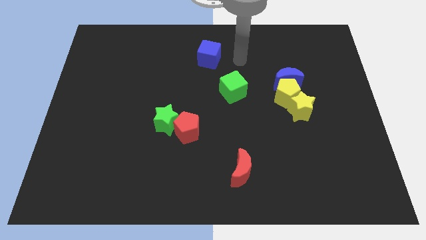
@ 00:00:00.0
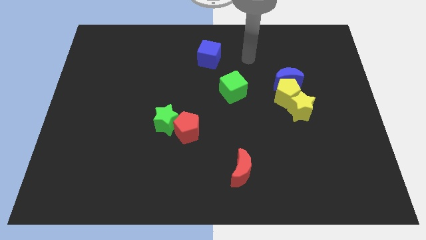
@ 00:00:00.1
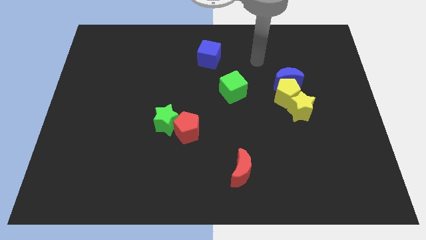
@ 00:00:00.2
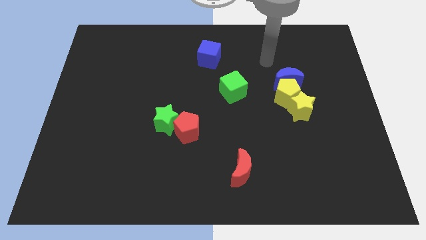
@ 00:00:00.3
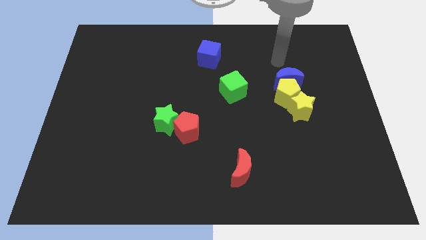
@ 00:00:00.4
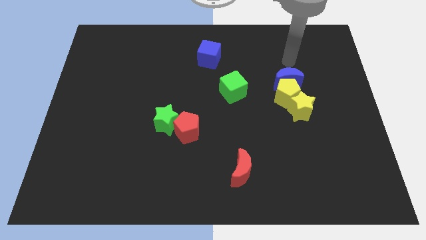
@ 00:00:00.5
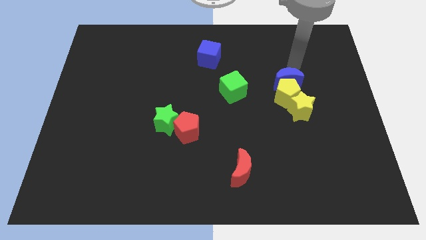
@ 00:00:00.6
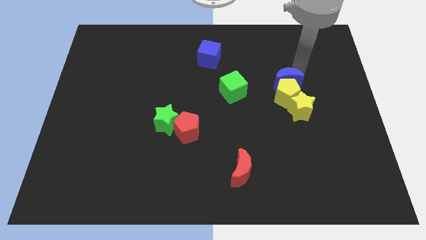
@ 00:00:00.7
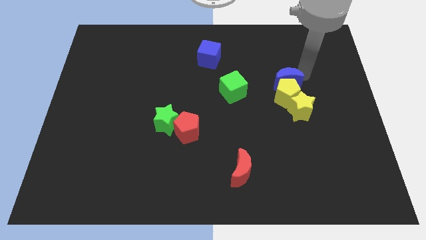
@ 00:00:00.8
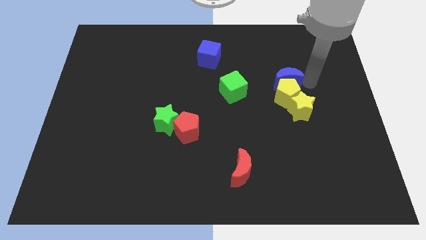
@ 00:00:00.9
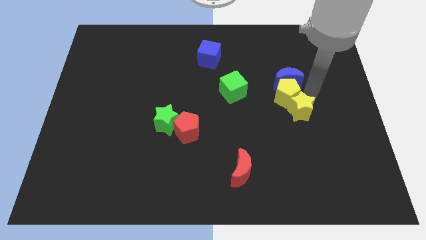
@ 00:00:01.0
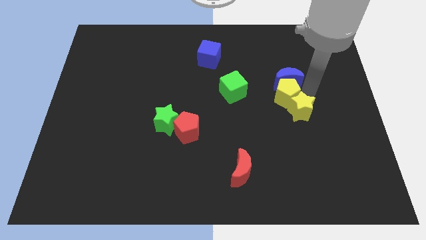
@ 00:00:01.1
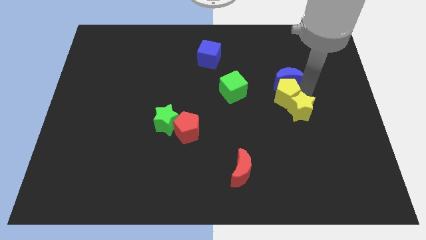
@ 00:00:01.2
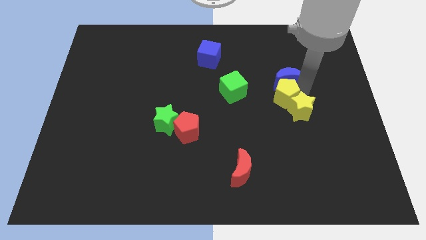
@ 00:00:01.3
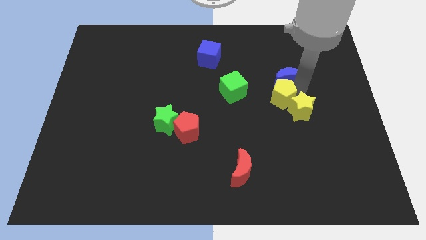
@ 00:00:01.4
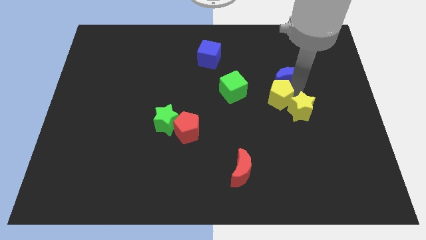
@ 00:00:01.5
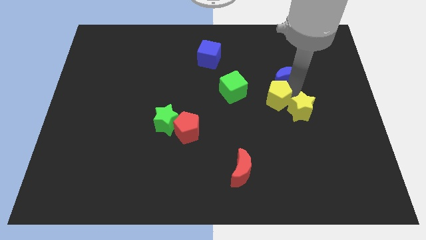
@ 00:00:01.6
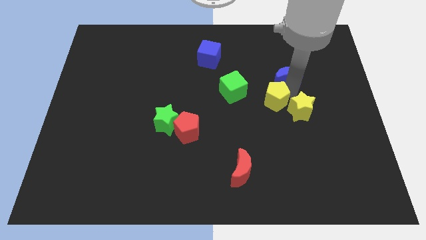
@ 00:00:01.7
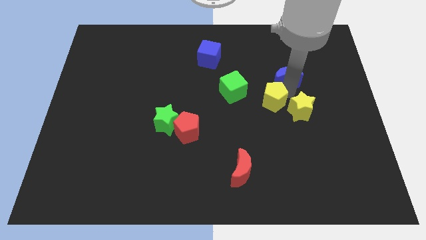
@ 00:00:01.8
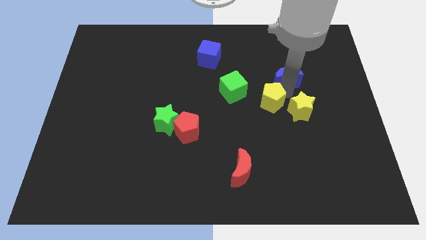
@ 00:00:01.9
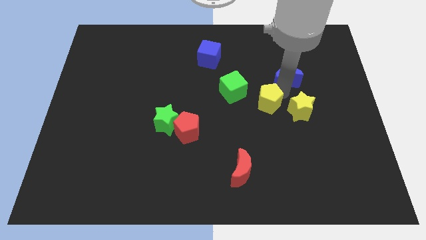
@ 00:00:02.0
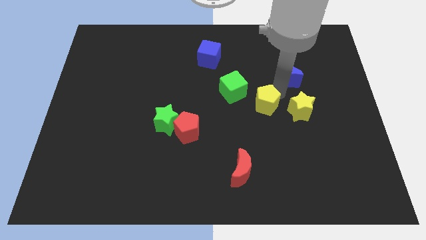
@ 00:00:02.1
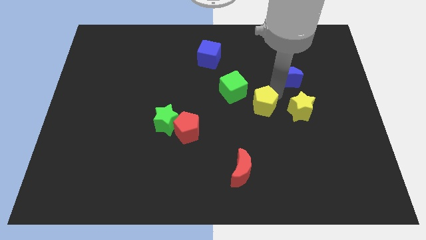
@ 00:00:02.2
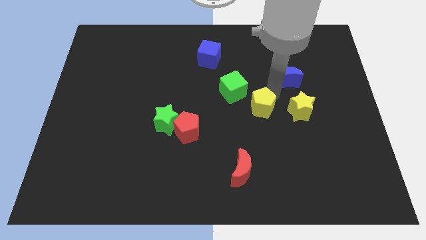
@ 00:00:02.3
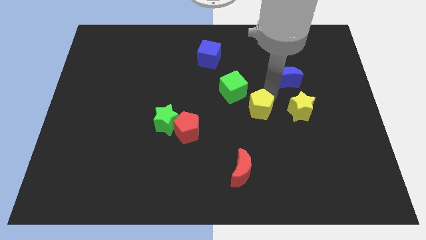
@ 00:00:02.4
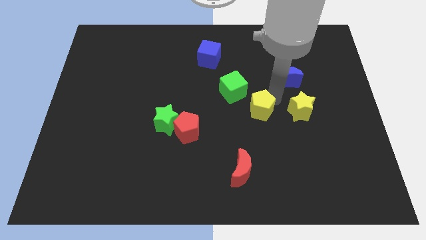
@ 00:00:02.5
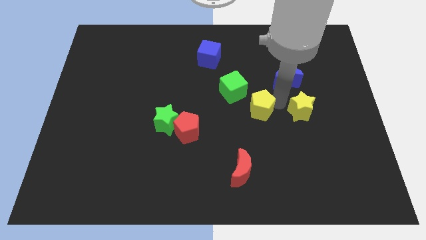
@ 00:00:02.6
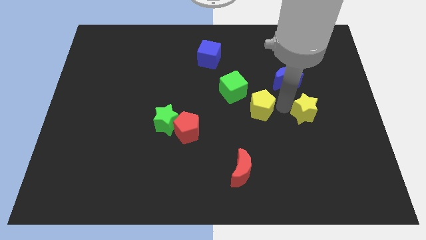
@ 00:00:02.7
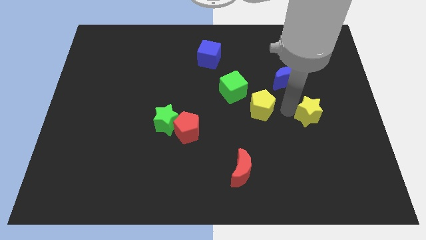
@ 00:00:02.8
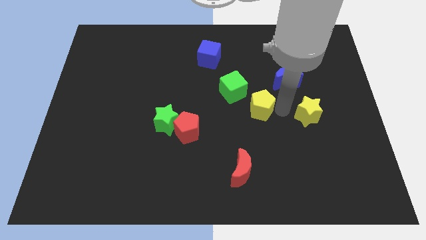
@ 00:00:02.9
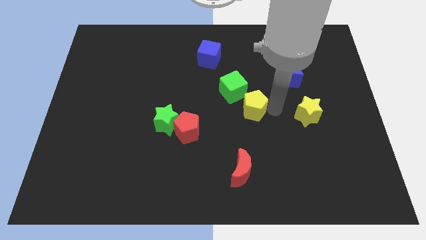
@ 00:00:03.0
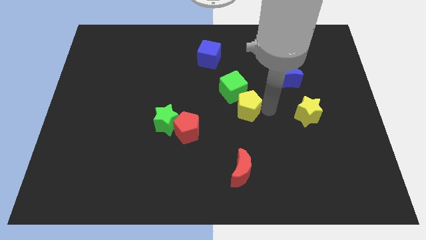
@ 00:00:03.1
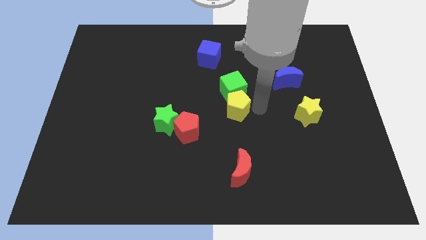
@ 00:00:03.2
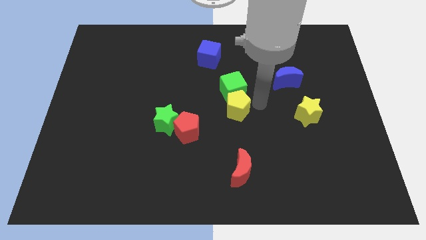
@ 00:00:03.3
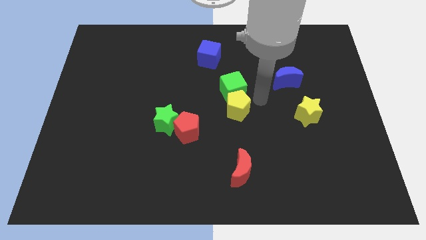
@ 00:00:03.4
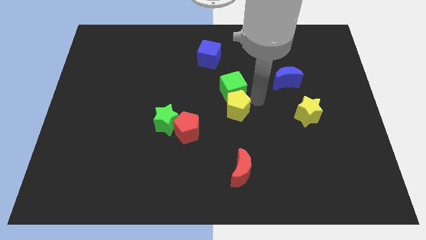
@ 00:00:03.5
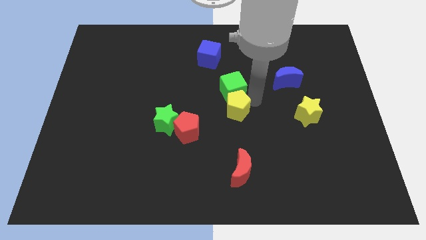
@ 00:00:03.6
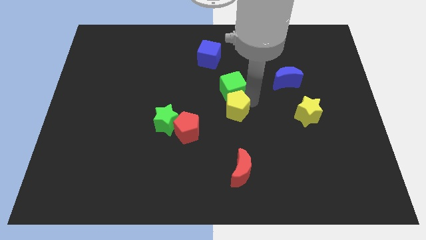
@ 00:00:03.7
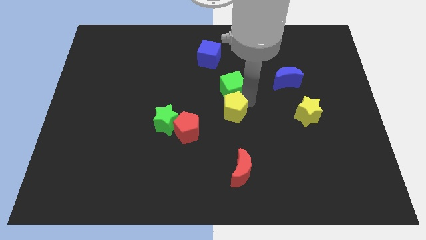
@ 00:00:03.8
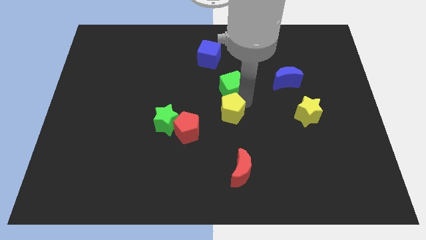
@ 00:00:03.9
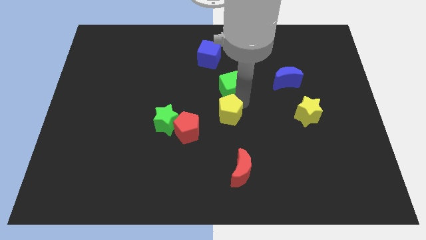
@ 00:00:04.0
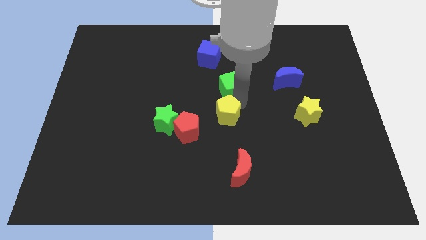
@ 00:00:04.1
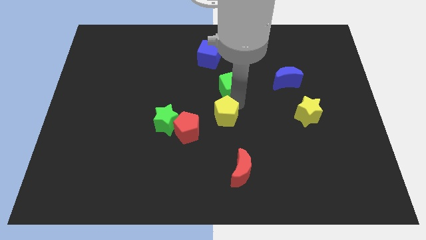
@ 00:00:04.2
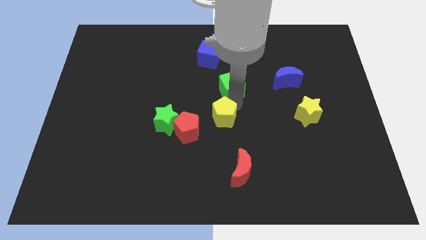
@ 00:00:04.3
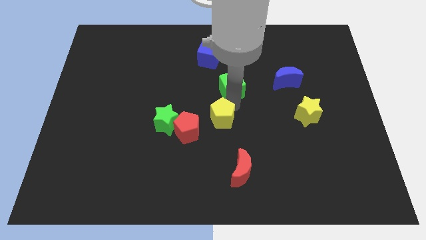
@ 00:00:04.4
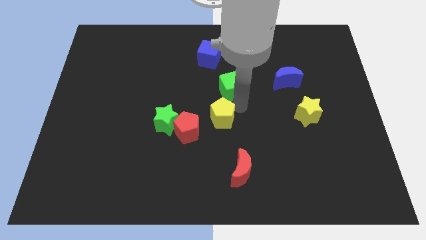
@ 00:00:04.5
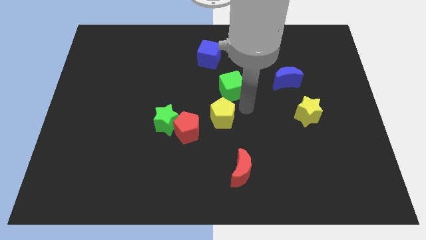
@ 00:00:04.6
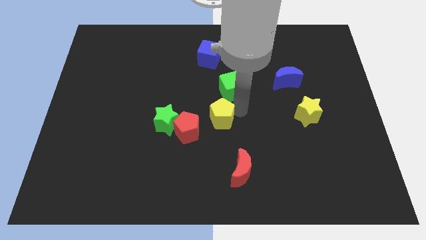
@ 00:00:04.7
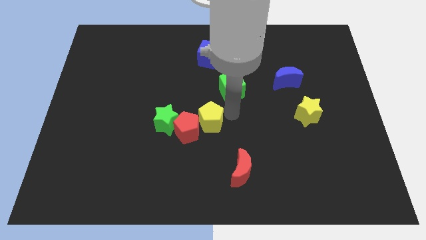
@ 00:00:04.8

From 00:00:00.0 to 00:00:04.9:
slide the yellow pentagon towards the red pentagon

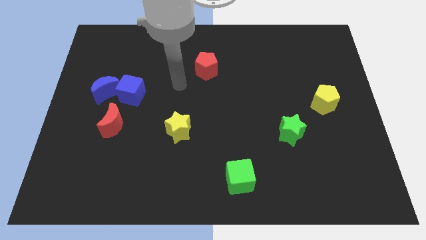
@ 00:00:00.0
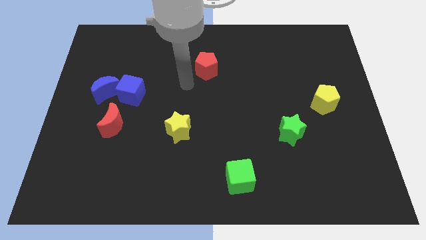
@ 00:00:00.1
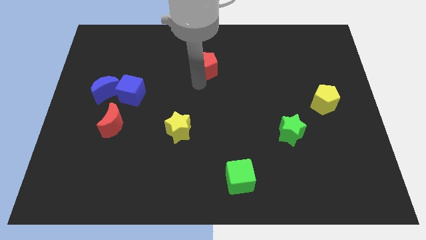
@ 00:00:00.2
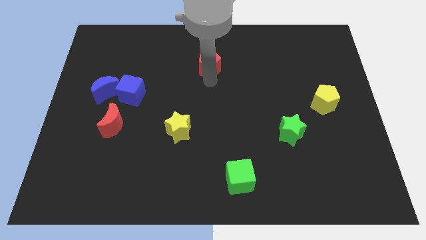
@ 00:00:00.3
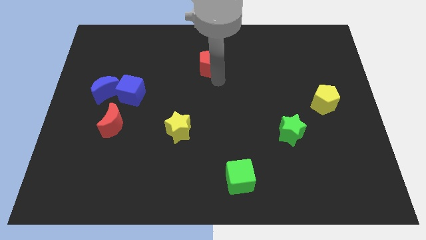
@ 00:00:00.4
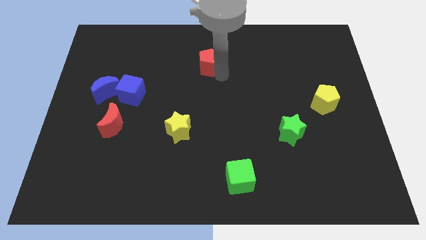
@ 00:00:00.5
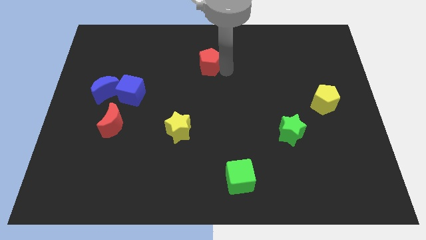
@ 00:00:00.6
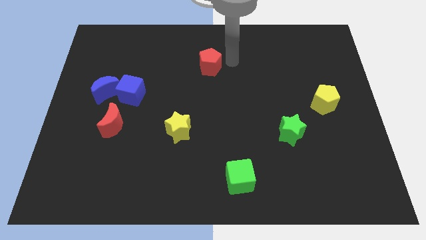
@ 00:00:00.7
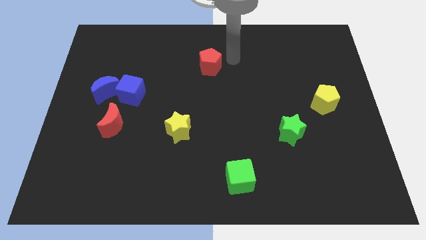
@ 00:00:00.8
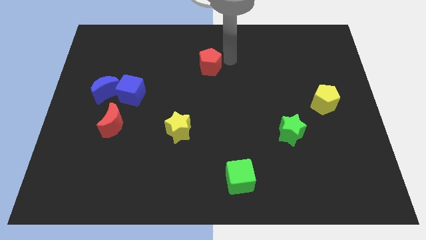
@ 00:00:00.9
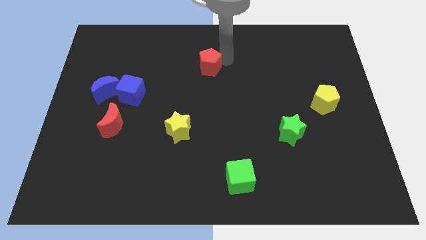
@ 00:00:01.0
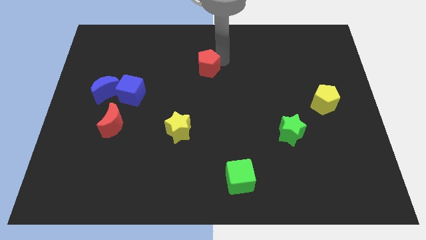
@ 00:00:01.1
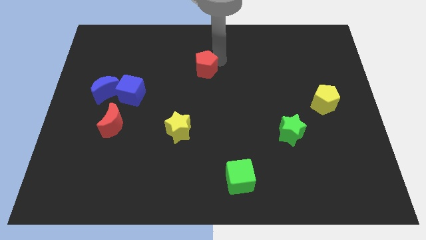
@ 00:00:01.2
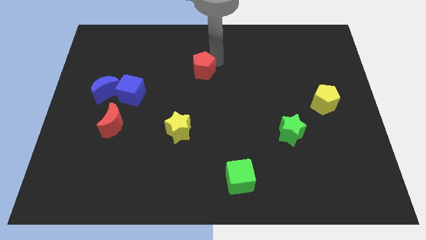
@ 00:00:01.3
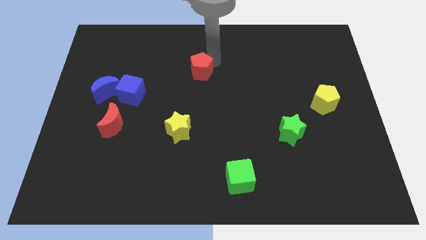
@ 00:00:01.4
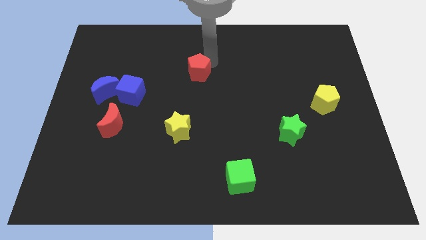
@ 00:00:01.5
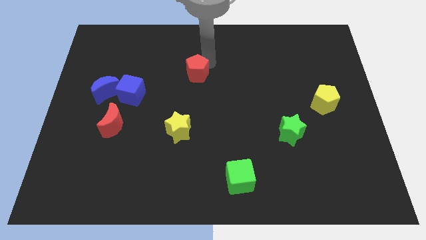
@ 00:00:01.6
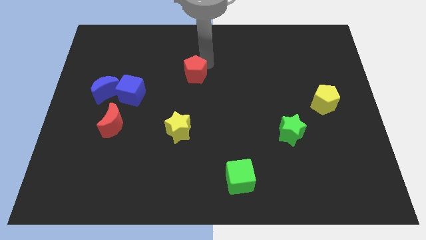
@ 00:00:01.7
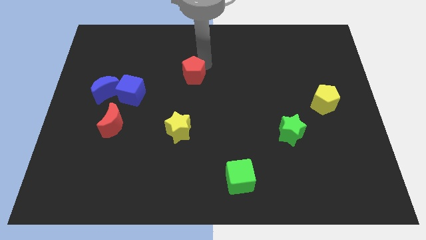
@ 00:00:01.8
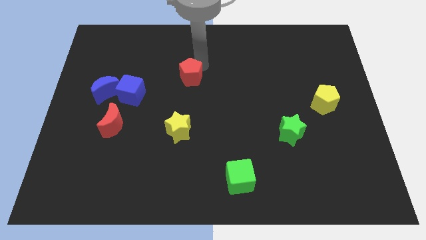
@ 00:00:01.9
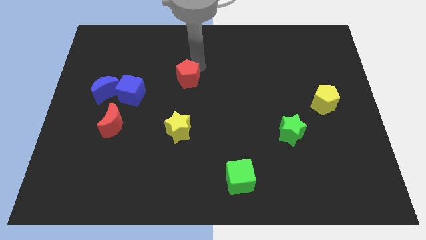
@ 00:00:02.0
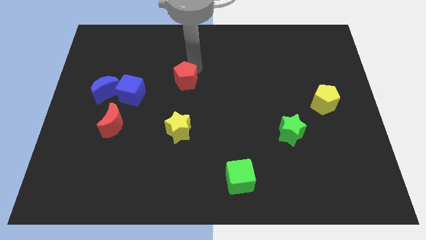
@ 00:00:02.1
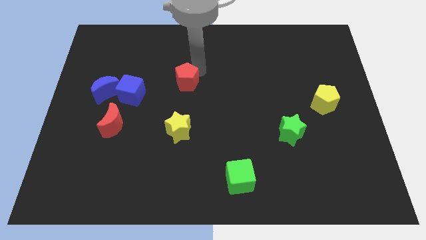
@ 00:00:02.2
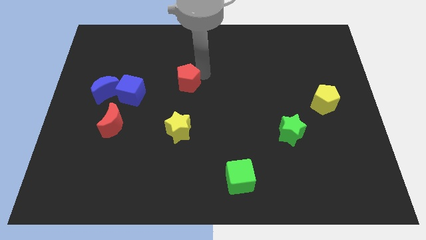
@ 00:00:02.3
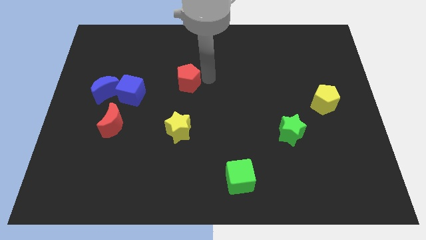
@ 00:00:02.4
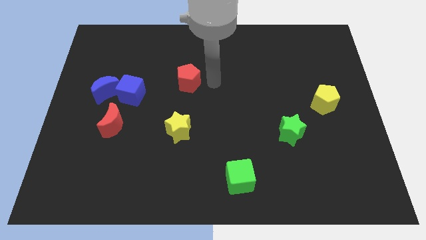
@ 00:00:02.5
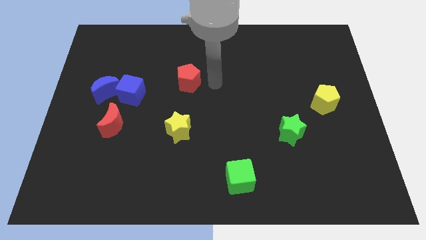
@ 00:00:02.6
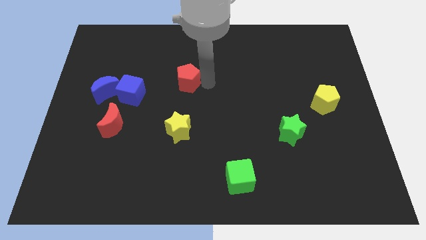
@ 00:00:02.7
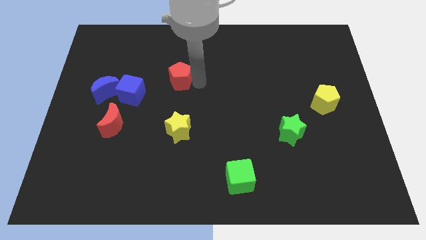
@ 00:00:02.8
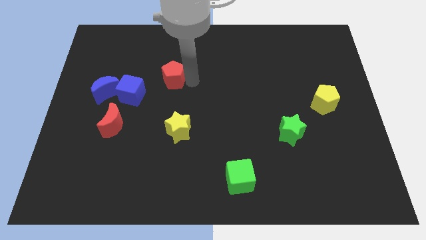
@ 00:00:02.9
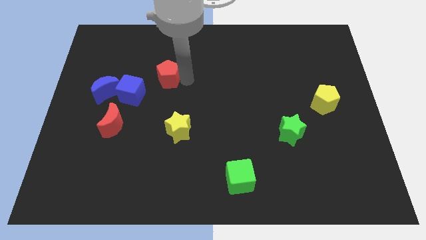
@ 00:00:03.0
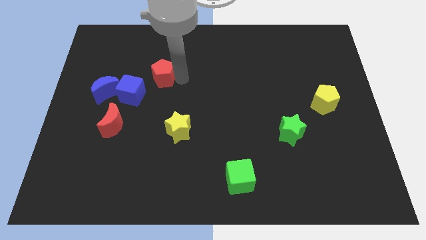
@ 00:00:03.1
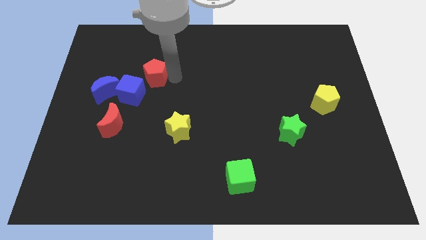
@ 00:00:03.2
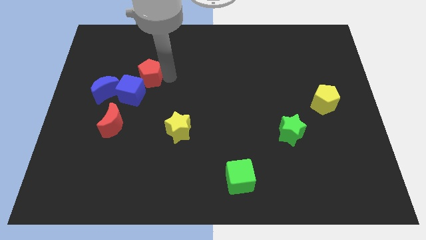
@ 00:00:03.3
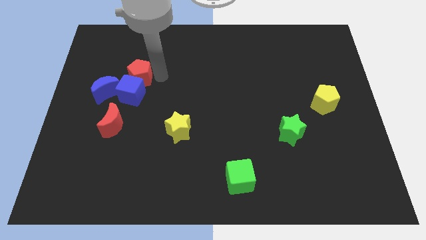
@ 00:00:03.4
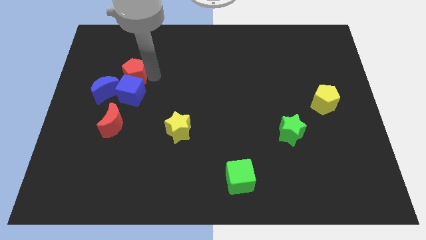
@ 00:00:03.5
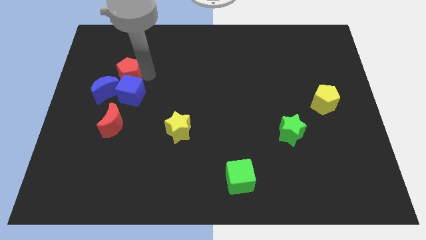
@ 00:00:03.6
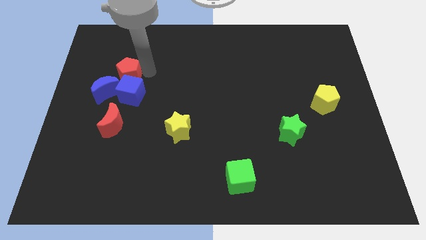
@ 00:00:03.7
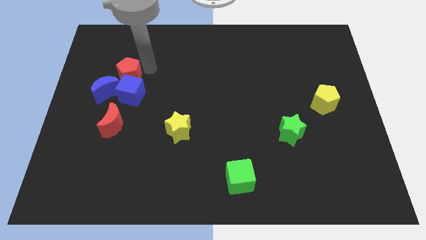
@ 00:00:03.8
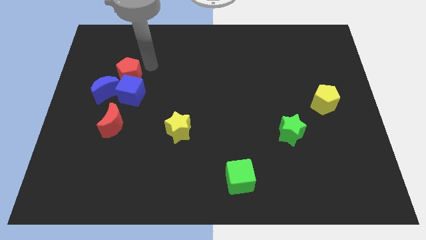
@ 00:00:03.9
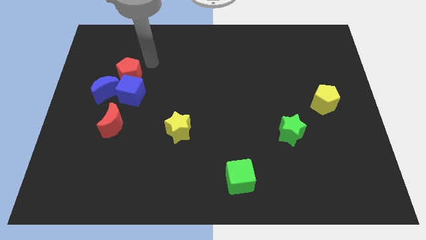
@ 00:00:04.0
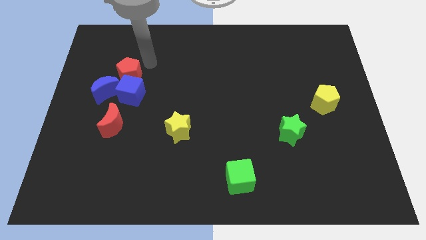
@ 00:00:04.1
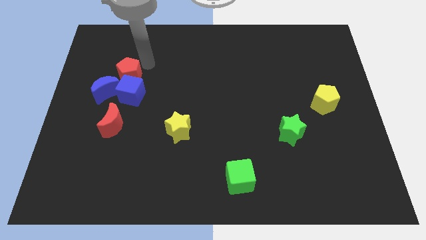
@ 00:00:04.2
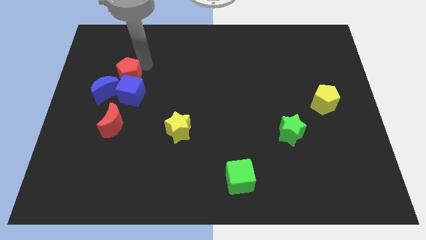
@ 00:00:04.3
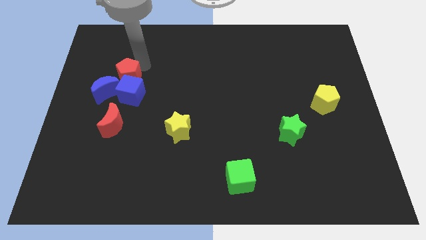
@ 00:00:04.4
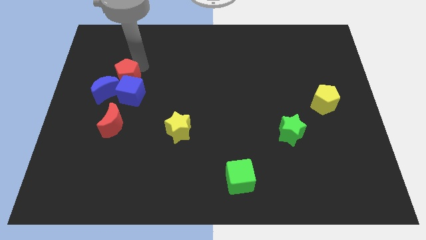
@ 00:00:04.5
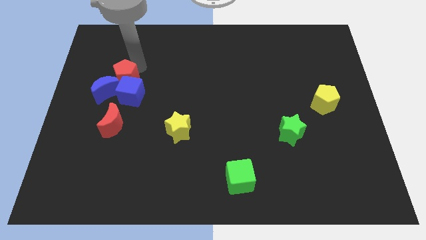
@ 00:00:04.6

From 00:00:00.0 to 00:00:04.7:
put the red pentagon next to the blue moon
